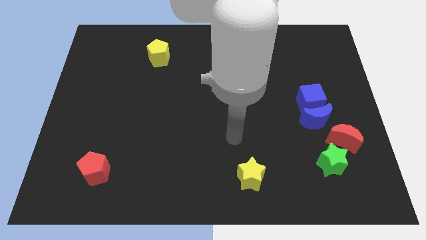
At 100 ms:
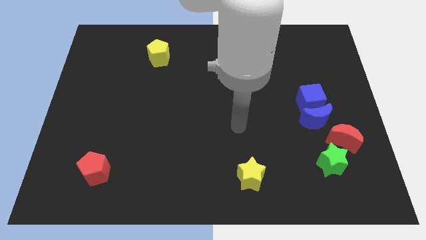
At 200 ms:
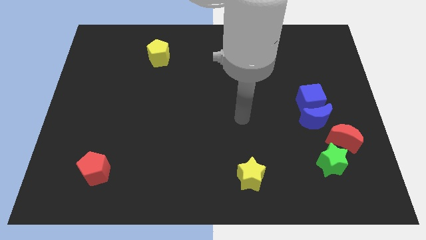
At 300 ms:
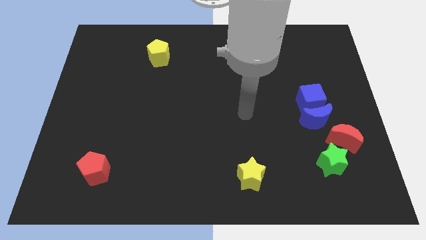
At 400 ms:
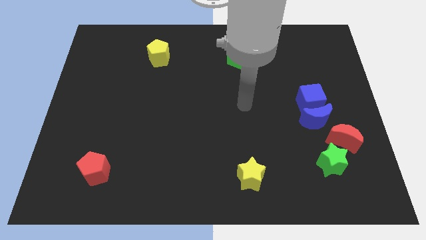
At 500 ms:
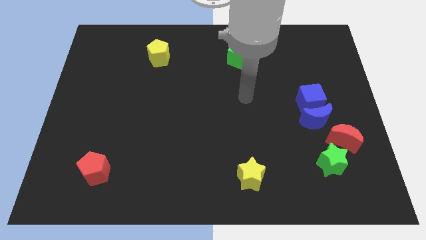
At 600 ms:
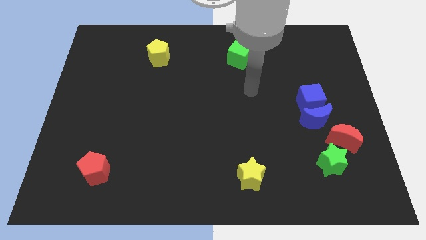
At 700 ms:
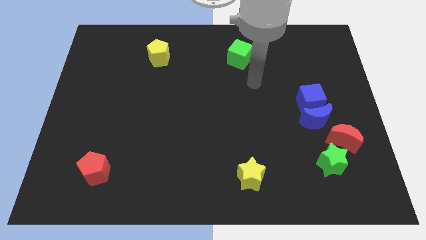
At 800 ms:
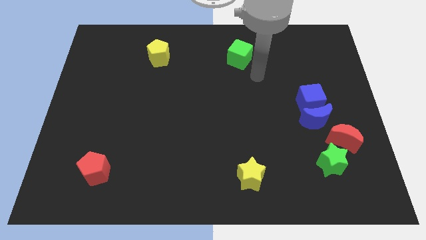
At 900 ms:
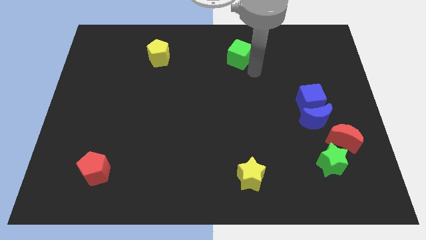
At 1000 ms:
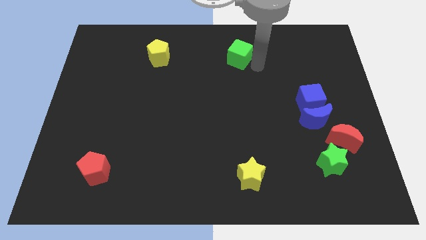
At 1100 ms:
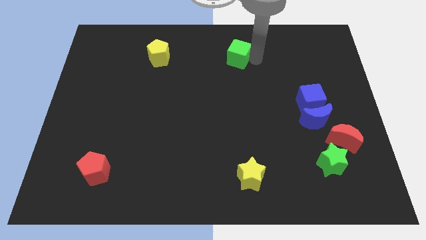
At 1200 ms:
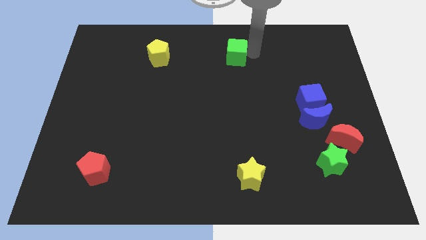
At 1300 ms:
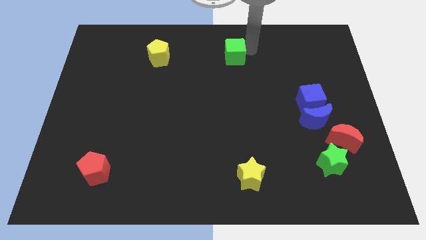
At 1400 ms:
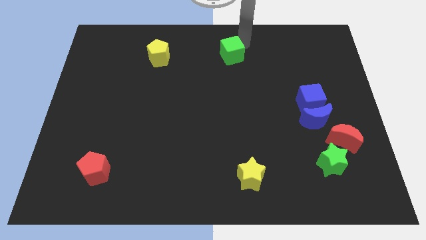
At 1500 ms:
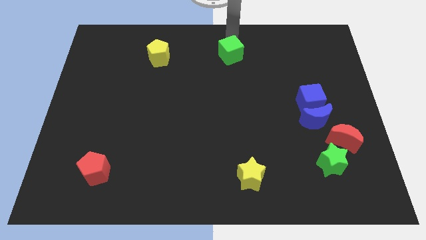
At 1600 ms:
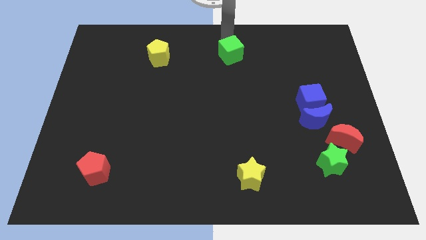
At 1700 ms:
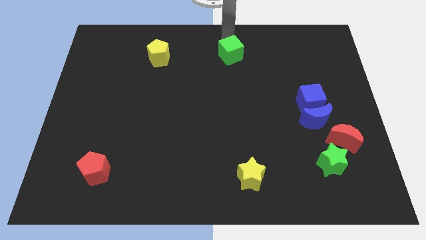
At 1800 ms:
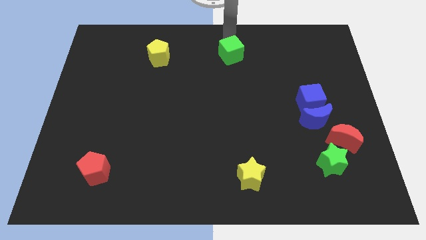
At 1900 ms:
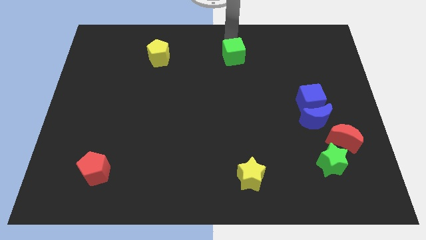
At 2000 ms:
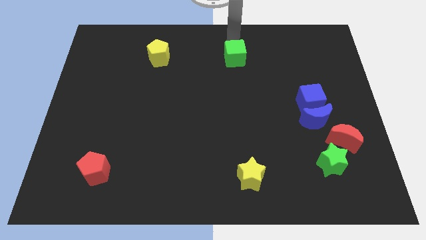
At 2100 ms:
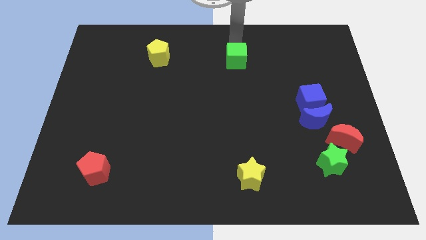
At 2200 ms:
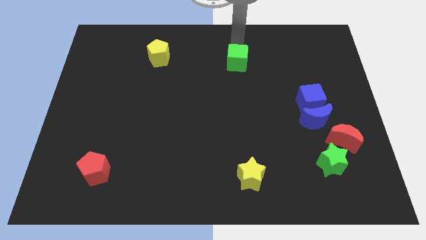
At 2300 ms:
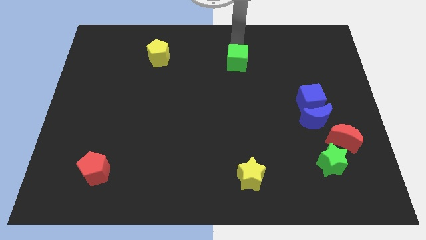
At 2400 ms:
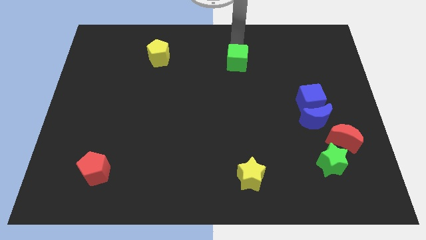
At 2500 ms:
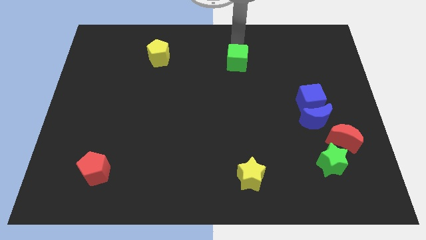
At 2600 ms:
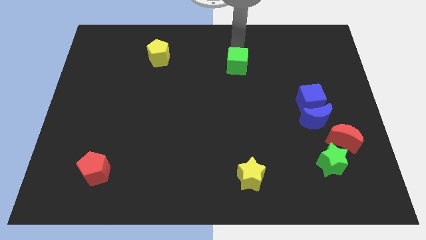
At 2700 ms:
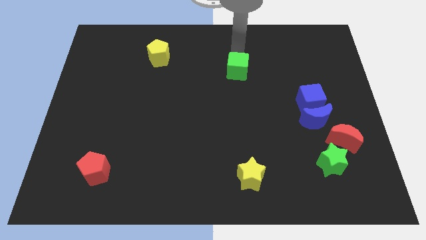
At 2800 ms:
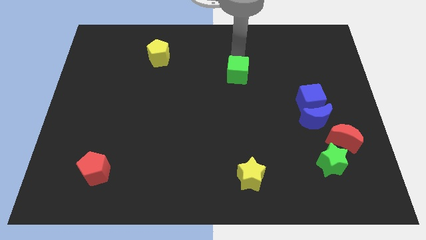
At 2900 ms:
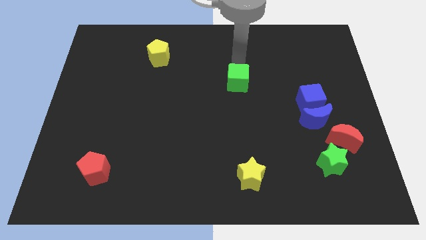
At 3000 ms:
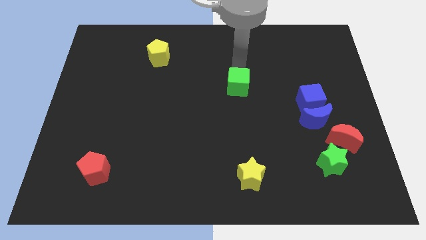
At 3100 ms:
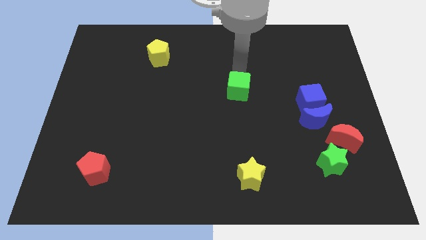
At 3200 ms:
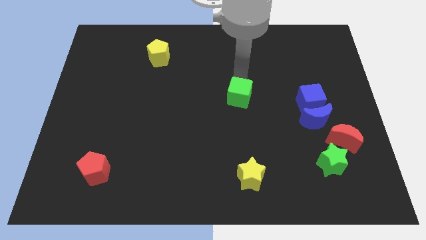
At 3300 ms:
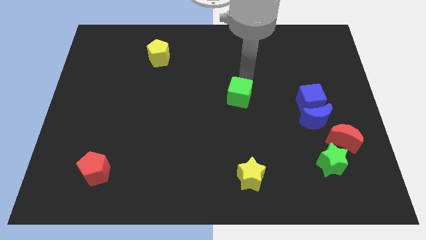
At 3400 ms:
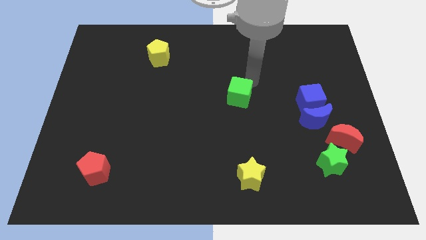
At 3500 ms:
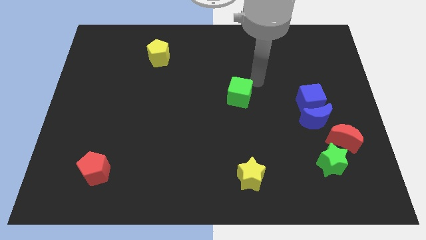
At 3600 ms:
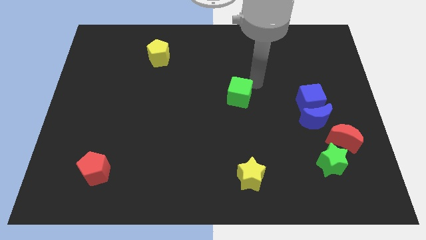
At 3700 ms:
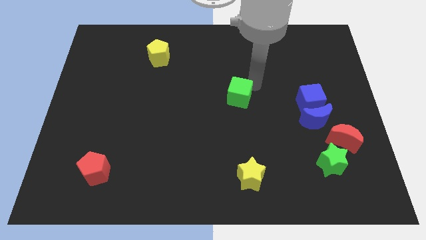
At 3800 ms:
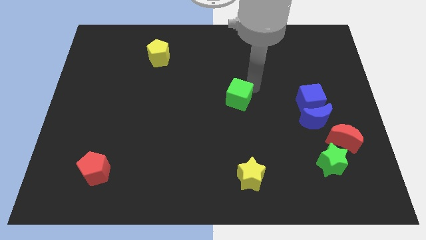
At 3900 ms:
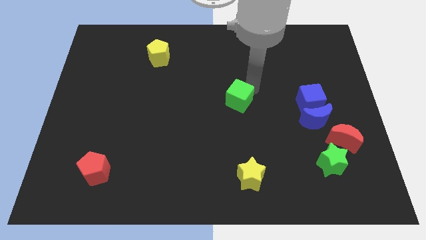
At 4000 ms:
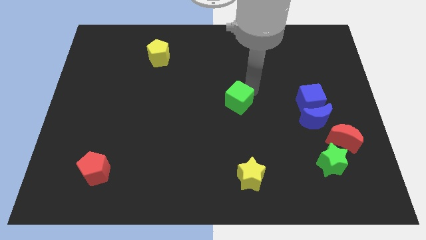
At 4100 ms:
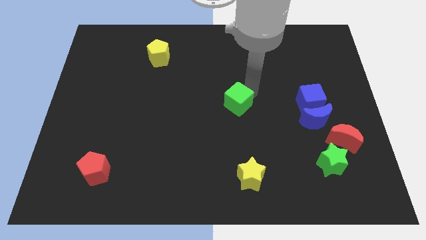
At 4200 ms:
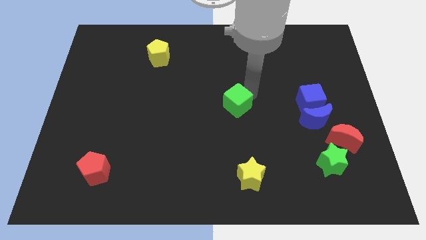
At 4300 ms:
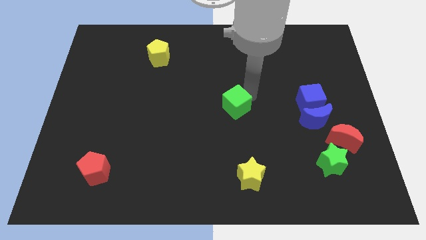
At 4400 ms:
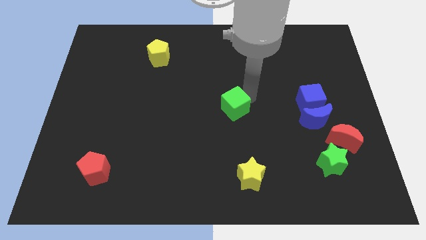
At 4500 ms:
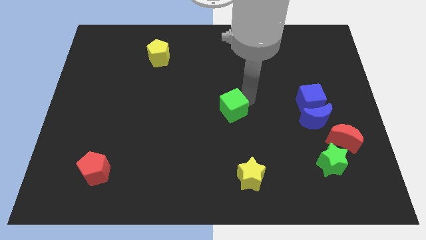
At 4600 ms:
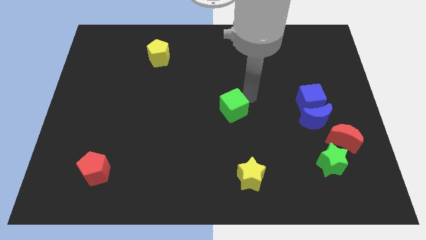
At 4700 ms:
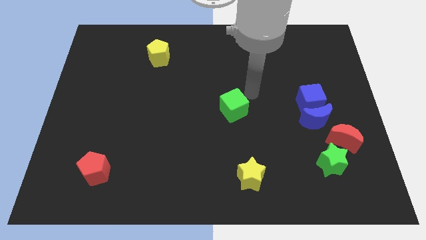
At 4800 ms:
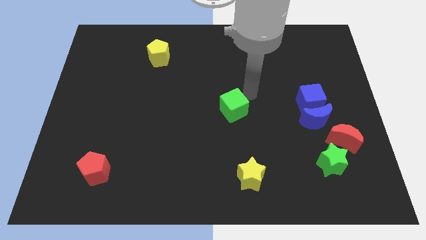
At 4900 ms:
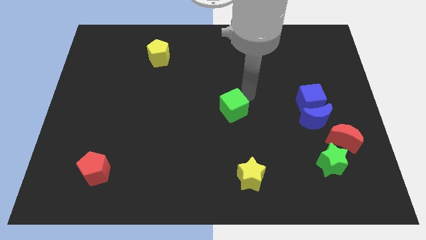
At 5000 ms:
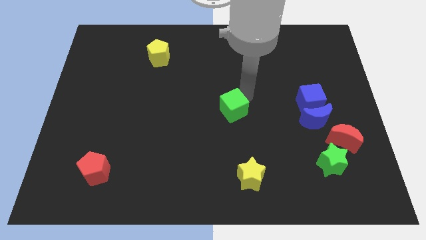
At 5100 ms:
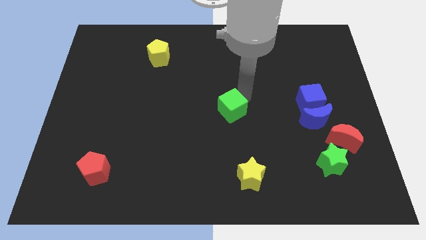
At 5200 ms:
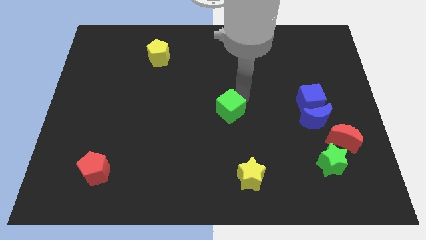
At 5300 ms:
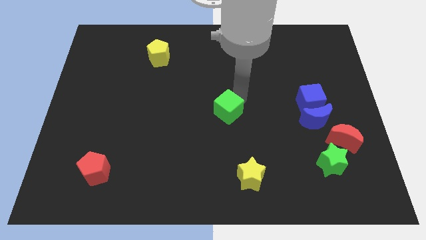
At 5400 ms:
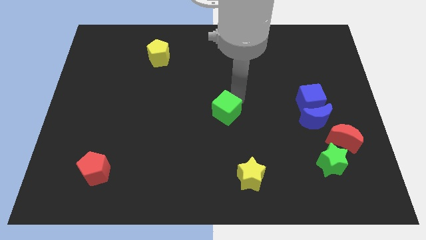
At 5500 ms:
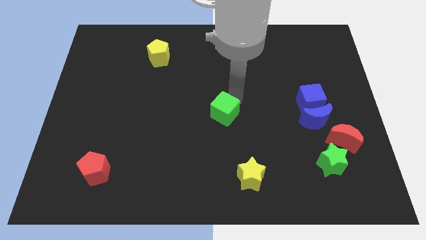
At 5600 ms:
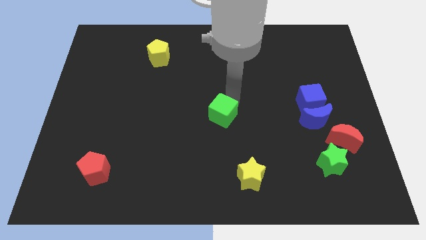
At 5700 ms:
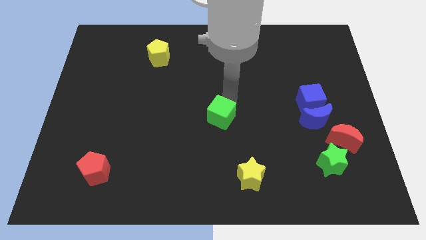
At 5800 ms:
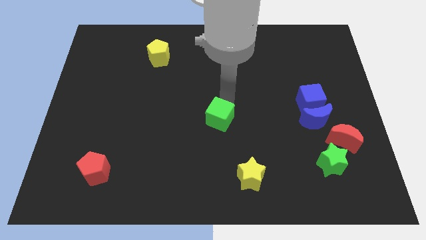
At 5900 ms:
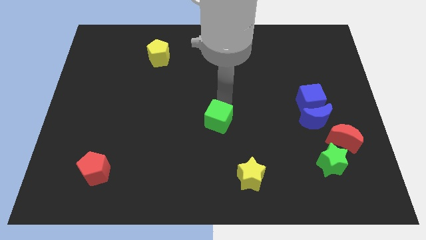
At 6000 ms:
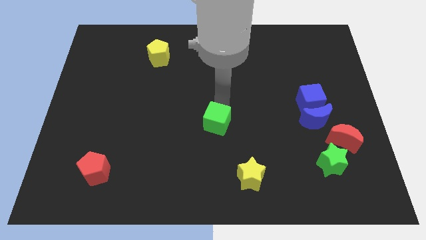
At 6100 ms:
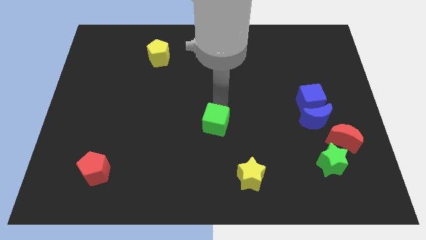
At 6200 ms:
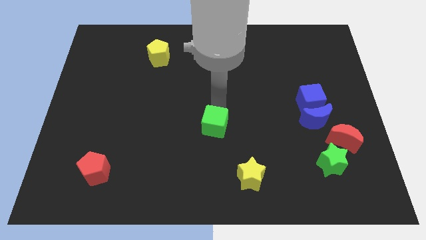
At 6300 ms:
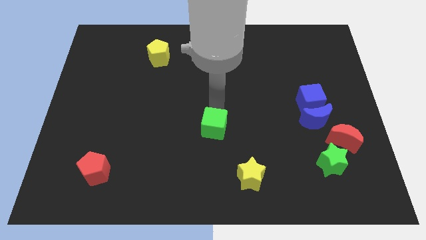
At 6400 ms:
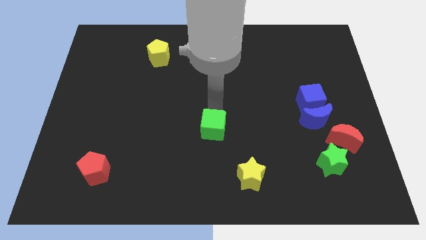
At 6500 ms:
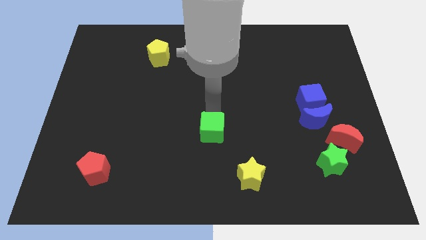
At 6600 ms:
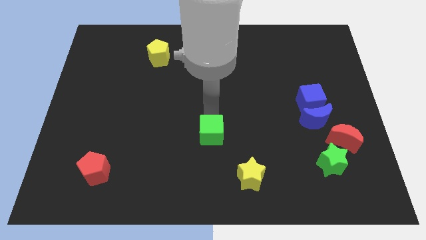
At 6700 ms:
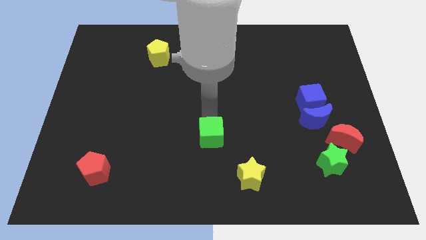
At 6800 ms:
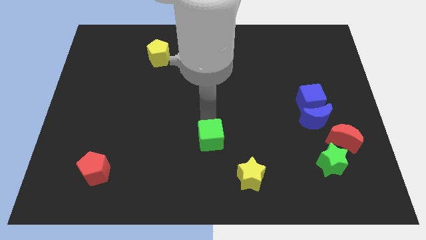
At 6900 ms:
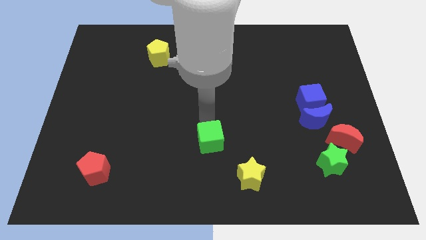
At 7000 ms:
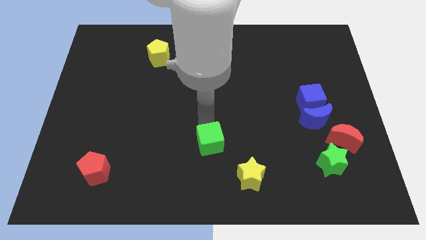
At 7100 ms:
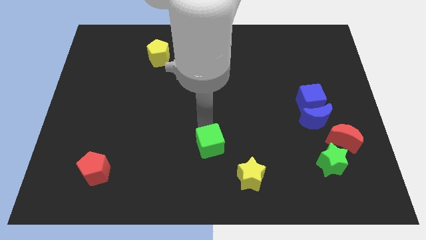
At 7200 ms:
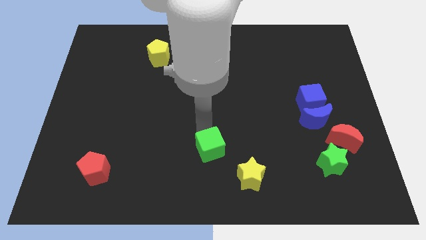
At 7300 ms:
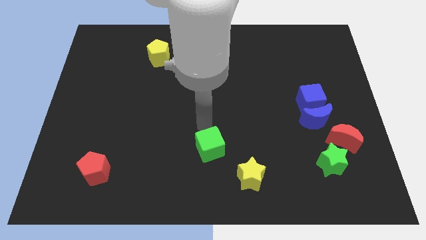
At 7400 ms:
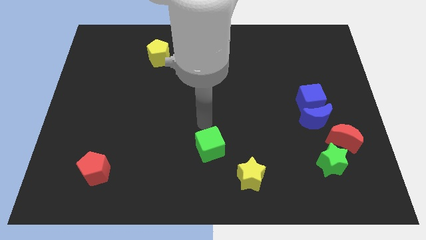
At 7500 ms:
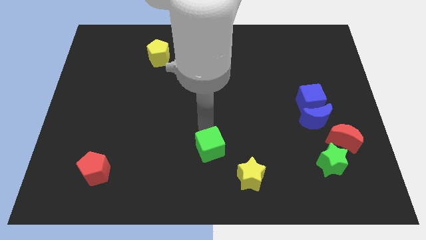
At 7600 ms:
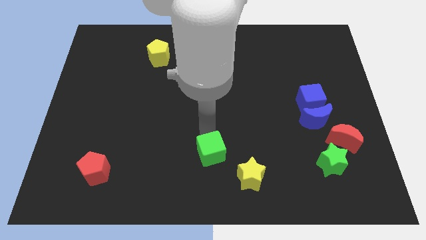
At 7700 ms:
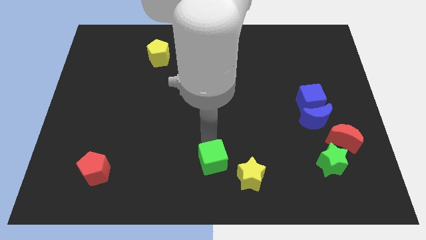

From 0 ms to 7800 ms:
slide the green cube to the bottom
